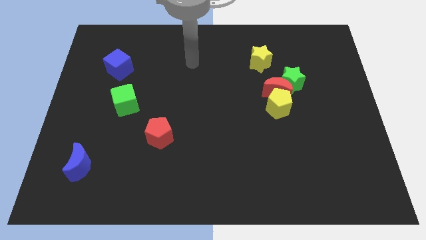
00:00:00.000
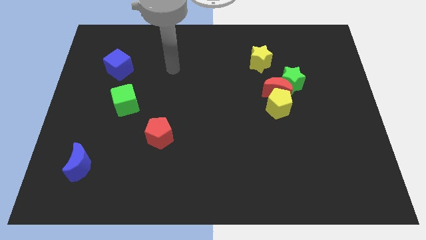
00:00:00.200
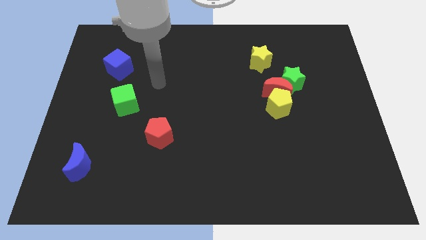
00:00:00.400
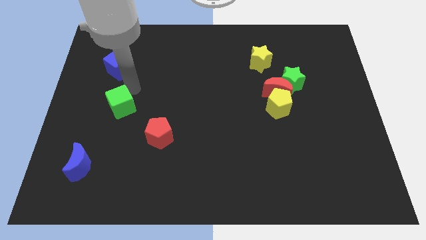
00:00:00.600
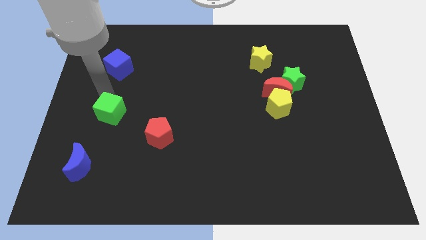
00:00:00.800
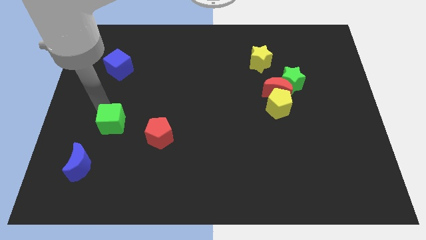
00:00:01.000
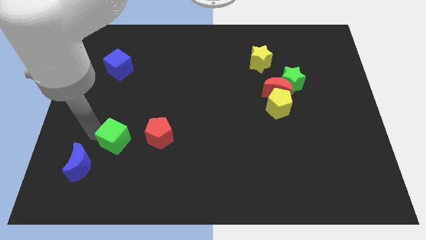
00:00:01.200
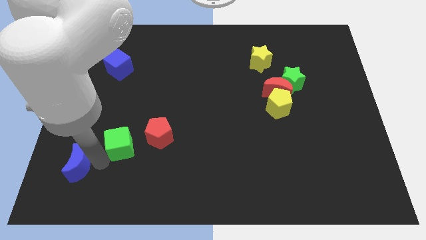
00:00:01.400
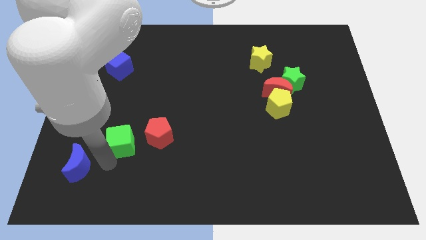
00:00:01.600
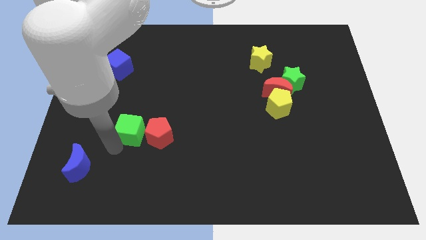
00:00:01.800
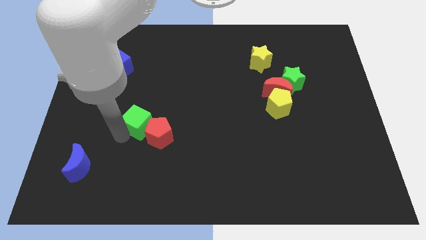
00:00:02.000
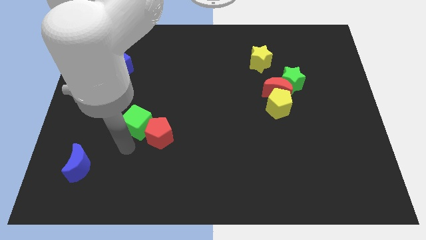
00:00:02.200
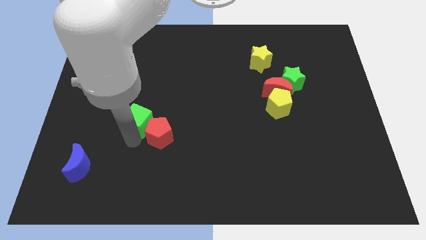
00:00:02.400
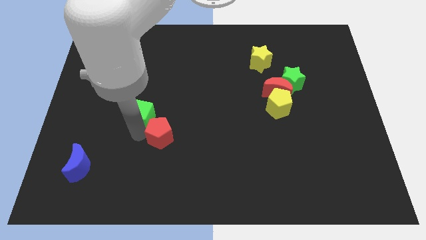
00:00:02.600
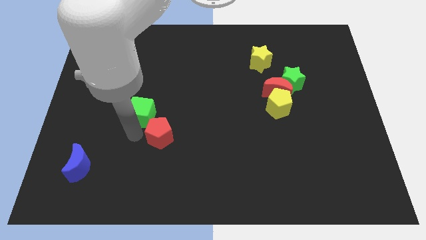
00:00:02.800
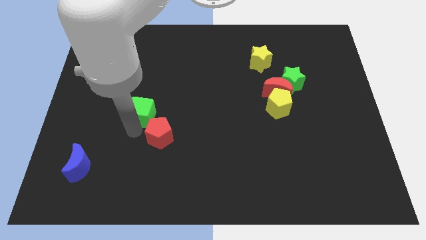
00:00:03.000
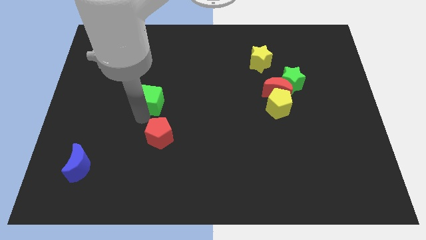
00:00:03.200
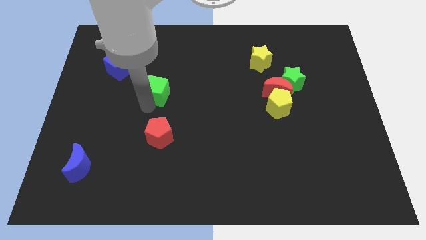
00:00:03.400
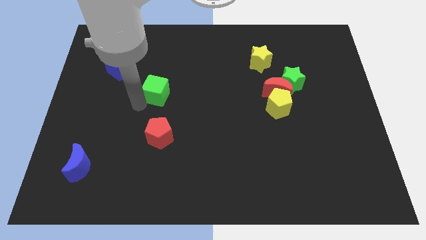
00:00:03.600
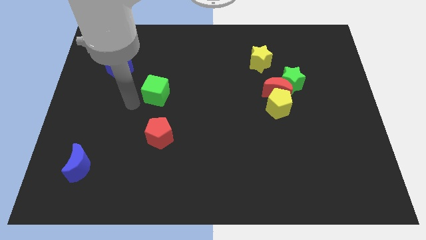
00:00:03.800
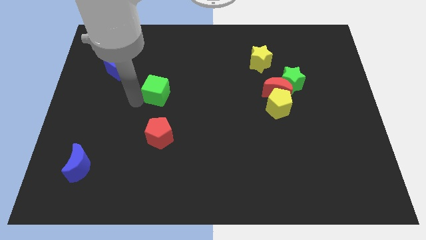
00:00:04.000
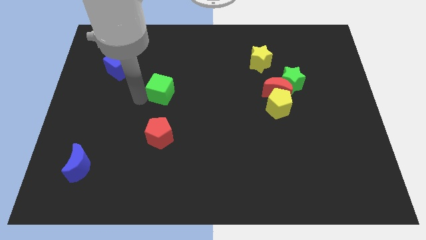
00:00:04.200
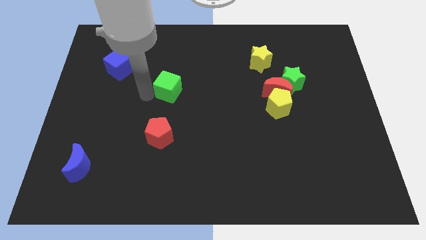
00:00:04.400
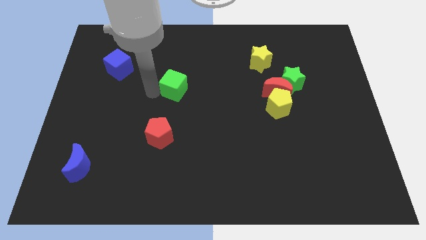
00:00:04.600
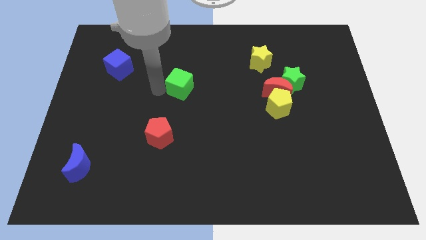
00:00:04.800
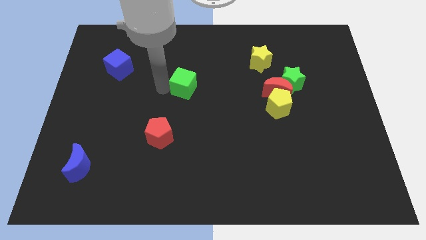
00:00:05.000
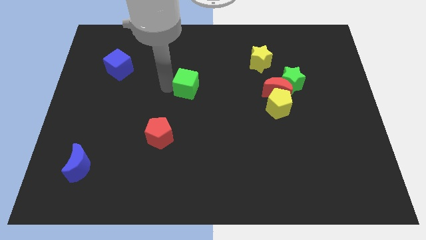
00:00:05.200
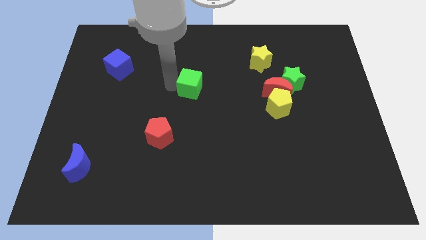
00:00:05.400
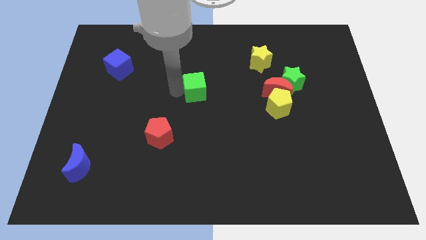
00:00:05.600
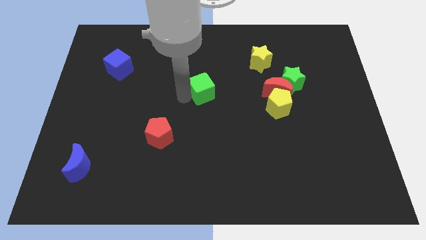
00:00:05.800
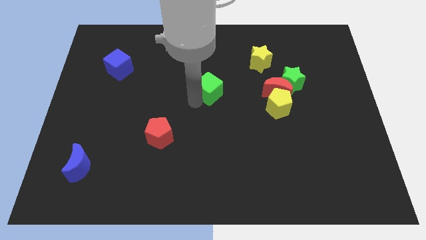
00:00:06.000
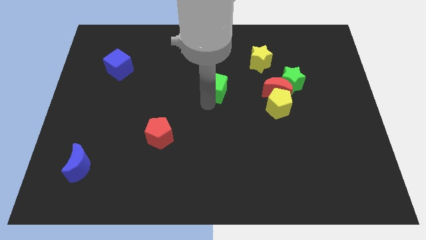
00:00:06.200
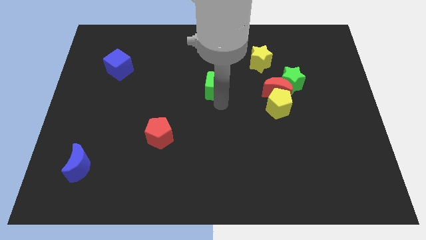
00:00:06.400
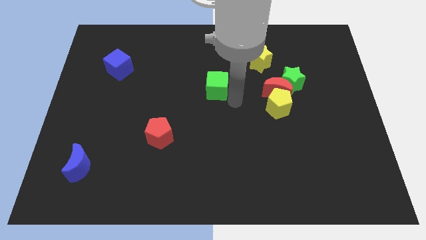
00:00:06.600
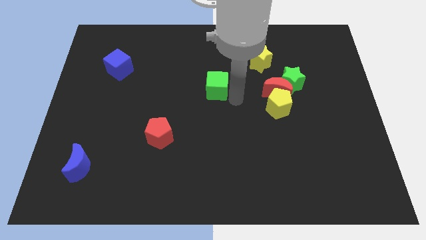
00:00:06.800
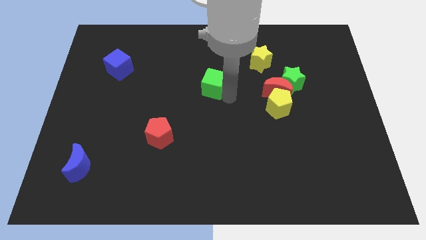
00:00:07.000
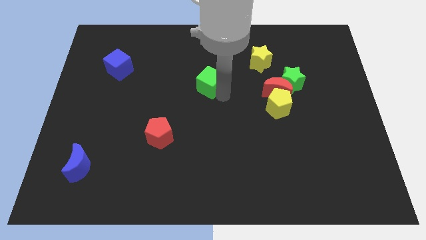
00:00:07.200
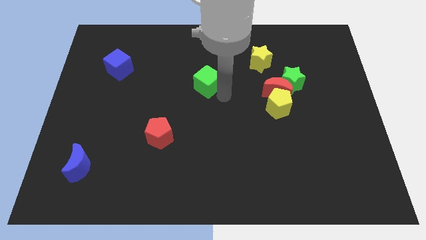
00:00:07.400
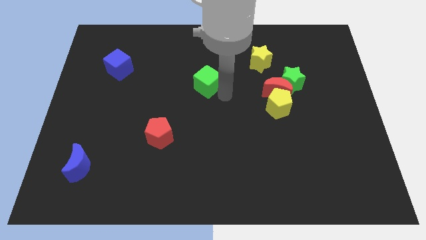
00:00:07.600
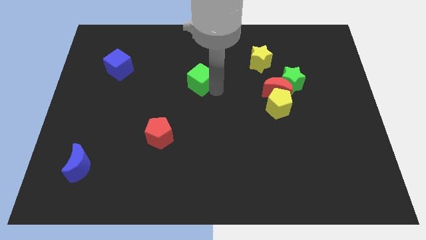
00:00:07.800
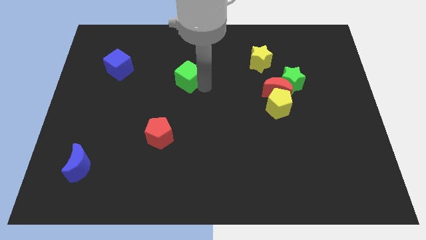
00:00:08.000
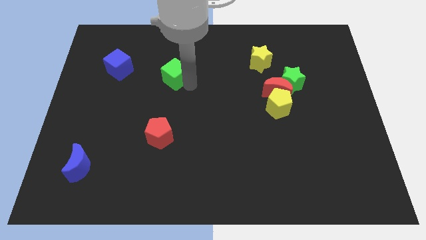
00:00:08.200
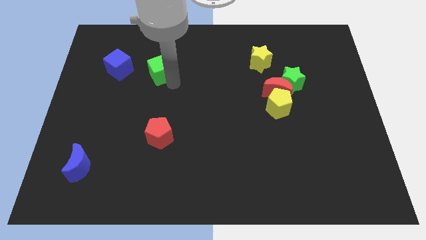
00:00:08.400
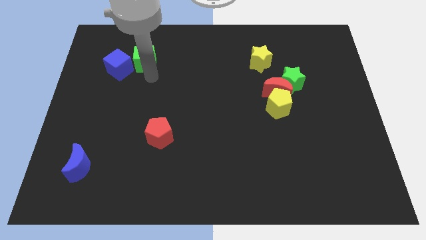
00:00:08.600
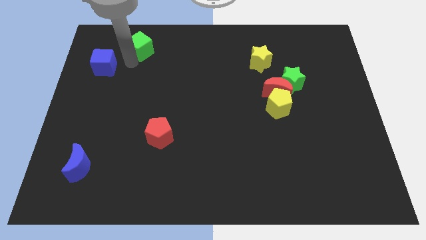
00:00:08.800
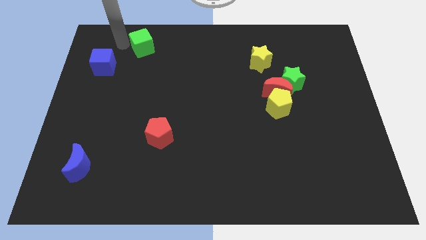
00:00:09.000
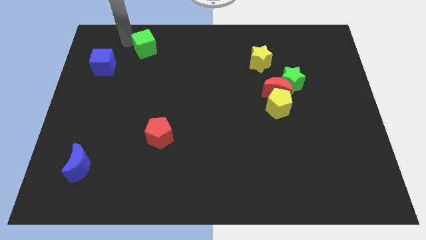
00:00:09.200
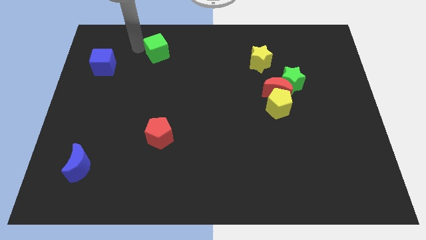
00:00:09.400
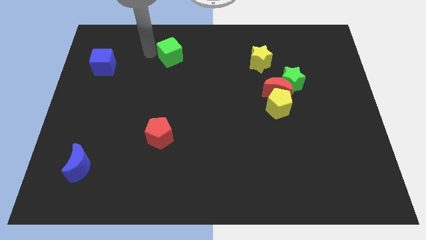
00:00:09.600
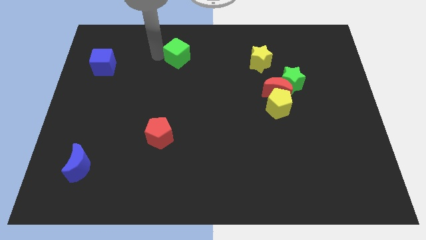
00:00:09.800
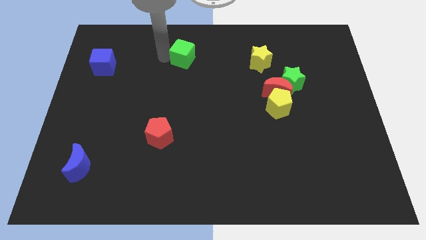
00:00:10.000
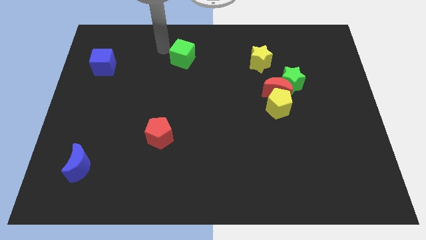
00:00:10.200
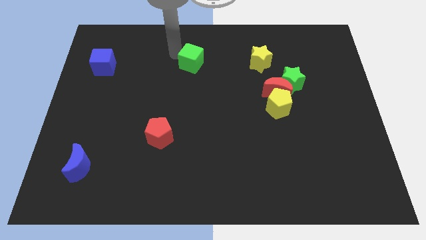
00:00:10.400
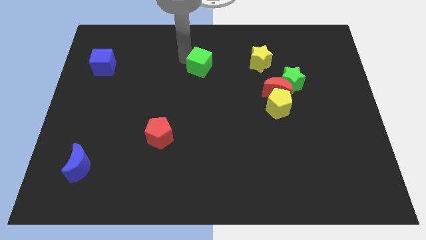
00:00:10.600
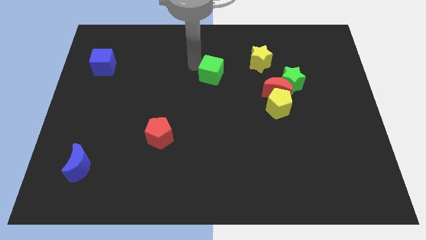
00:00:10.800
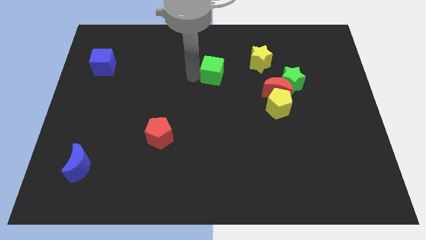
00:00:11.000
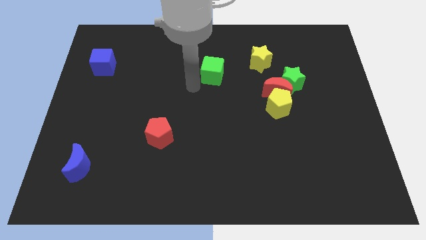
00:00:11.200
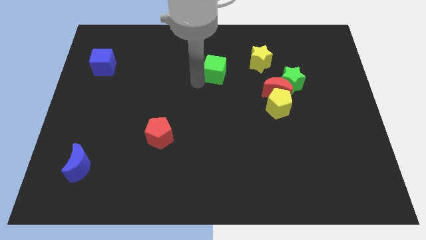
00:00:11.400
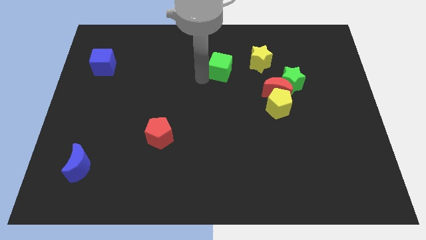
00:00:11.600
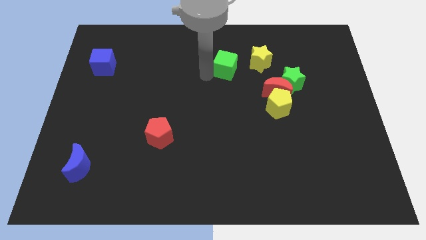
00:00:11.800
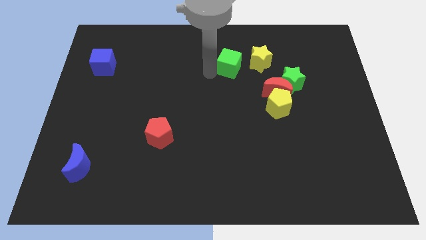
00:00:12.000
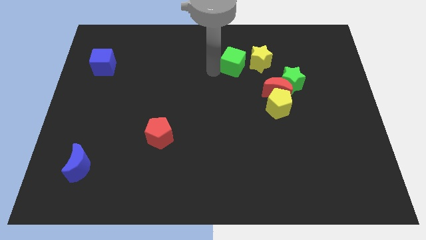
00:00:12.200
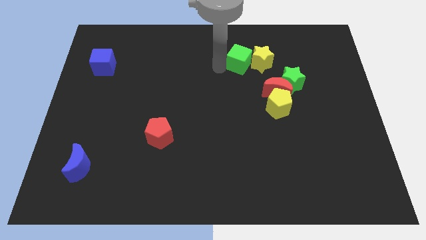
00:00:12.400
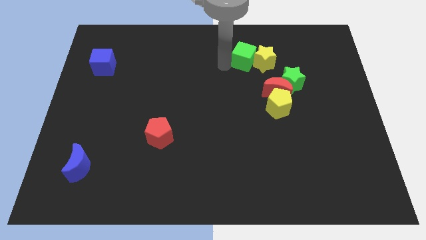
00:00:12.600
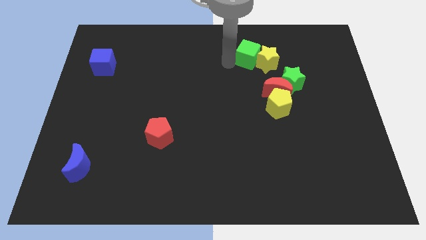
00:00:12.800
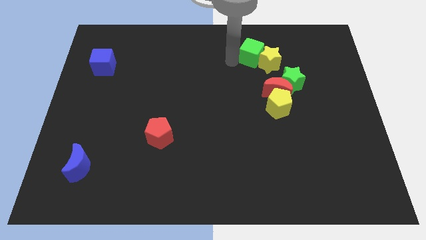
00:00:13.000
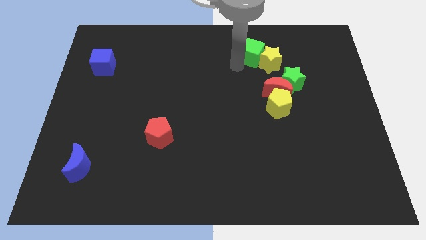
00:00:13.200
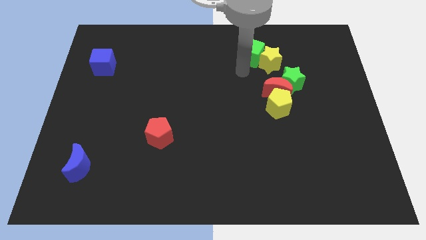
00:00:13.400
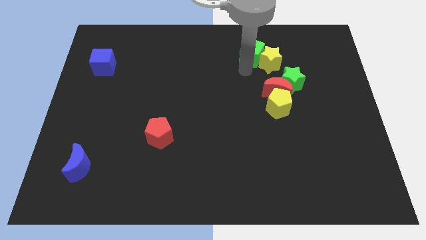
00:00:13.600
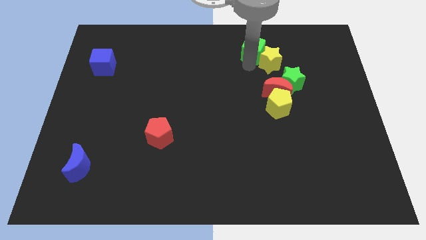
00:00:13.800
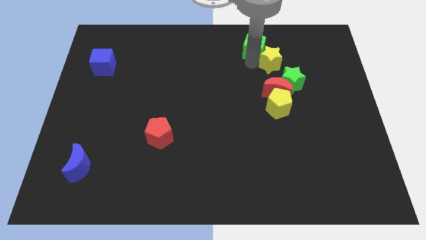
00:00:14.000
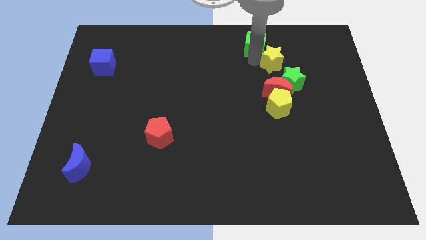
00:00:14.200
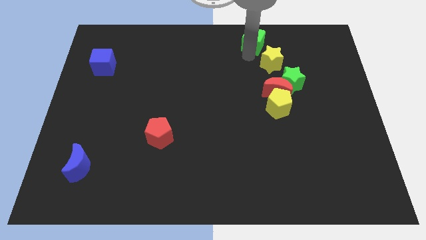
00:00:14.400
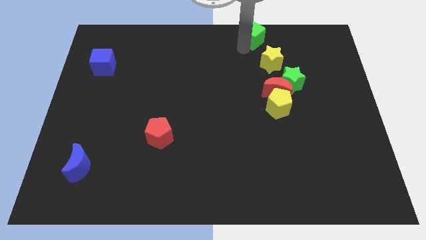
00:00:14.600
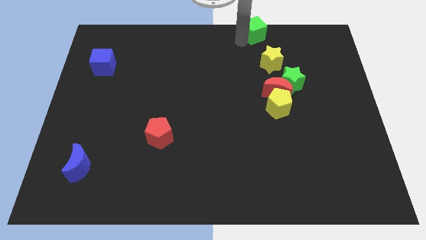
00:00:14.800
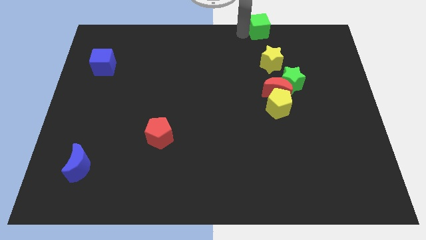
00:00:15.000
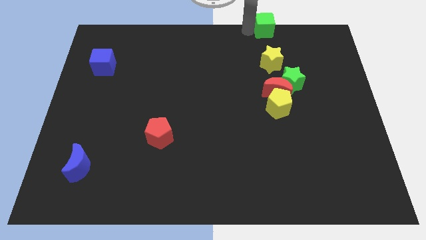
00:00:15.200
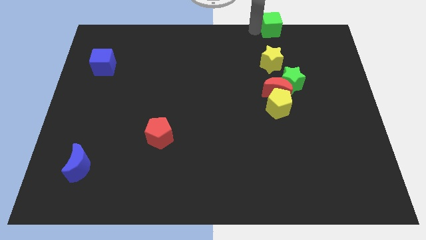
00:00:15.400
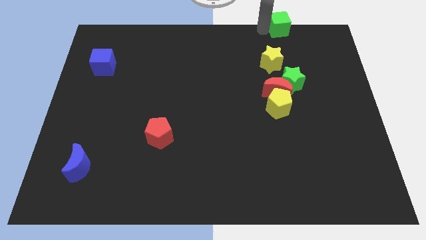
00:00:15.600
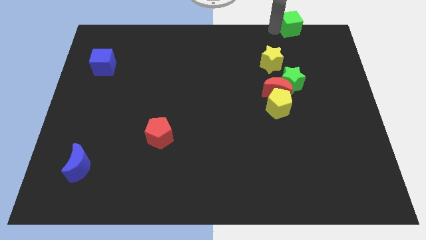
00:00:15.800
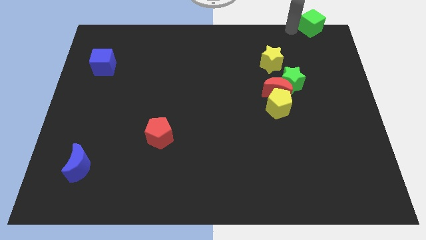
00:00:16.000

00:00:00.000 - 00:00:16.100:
put the green cube to the top right of the board
